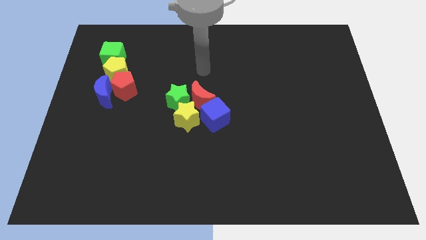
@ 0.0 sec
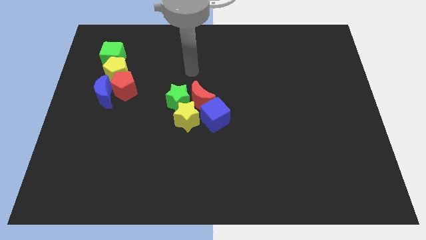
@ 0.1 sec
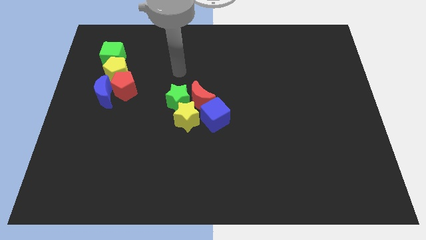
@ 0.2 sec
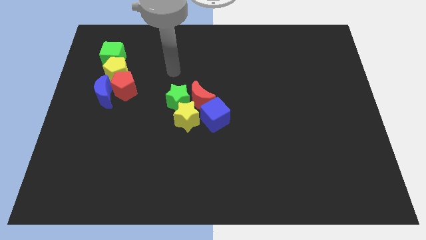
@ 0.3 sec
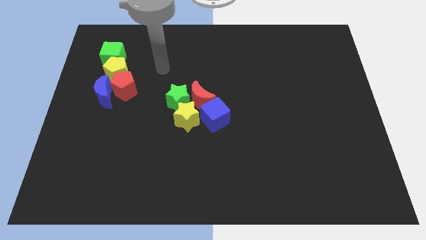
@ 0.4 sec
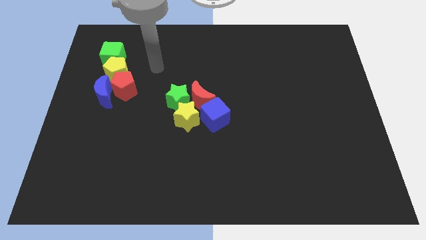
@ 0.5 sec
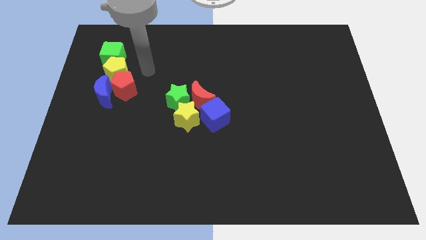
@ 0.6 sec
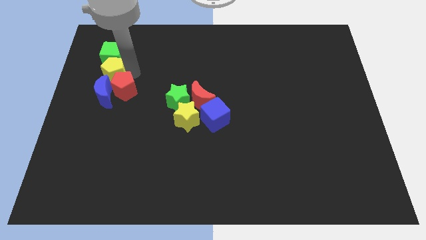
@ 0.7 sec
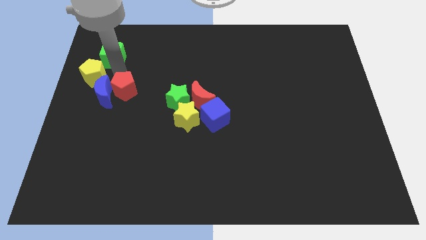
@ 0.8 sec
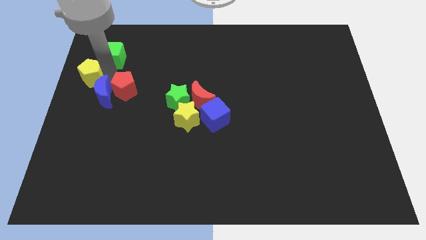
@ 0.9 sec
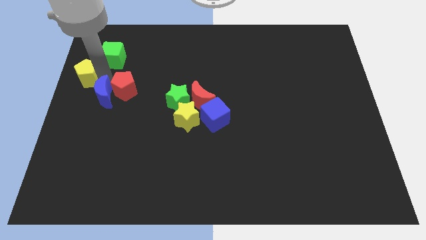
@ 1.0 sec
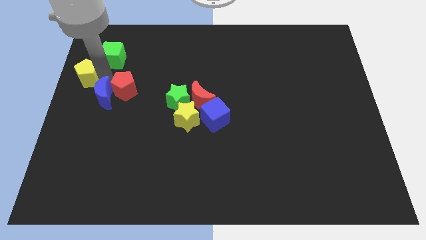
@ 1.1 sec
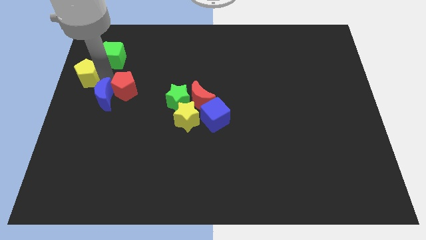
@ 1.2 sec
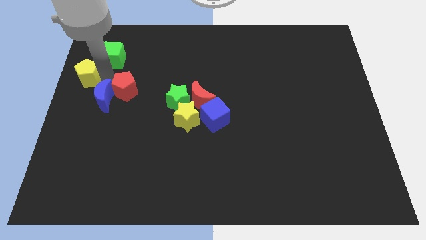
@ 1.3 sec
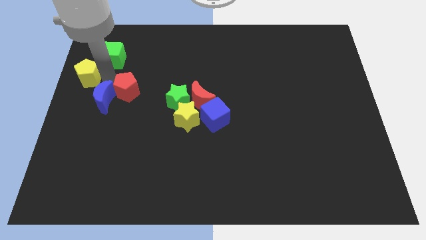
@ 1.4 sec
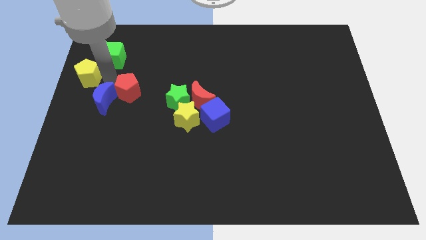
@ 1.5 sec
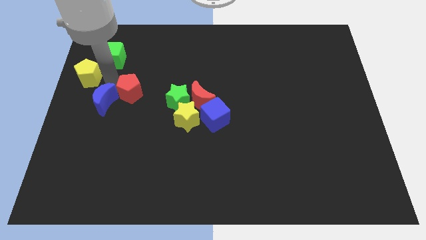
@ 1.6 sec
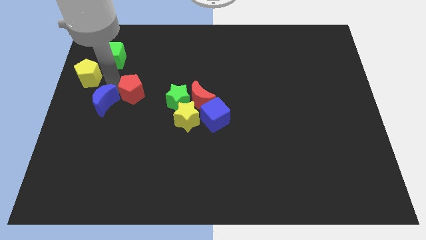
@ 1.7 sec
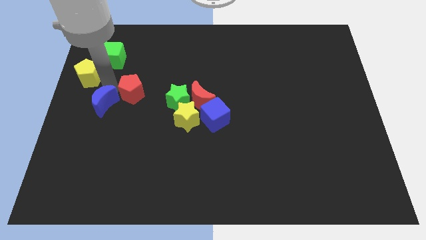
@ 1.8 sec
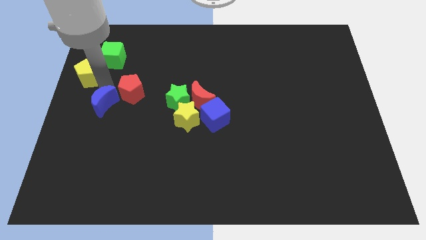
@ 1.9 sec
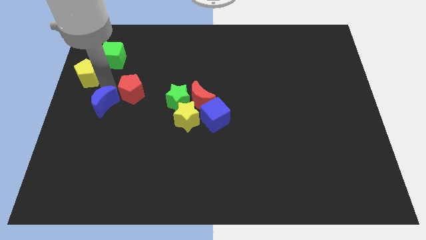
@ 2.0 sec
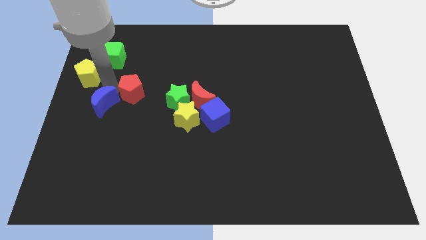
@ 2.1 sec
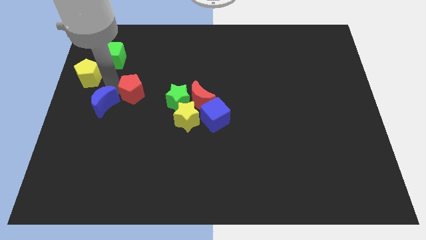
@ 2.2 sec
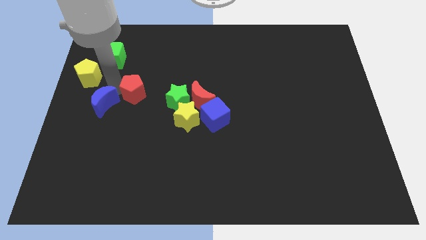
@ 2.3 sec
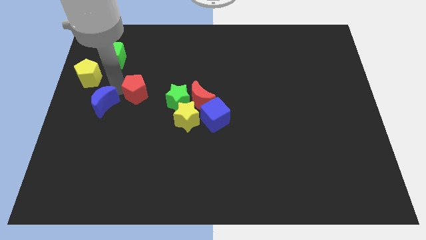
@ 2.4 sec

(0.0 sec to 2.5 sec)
pull the red pentagon apart from the blue moon and yellow pentagon

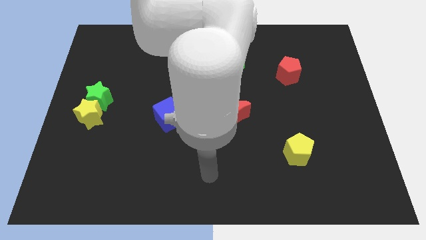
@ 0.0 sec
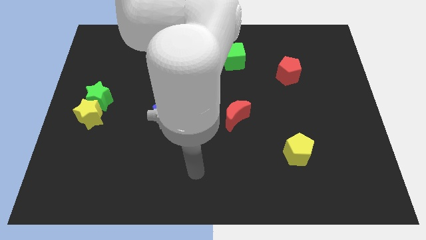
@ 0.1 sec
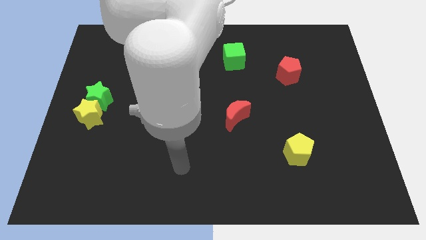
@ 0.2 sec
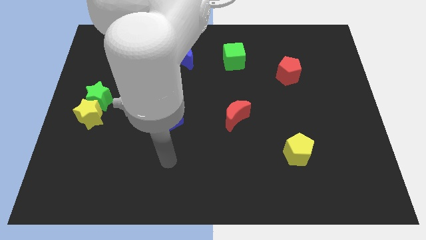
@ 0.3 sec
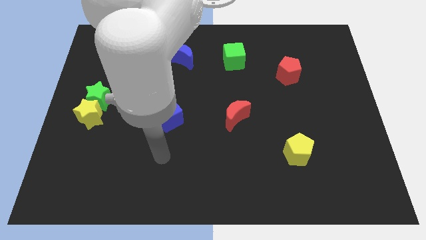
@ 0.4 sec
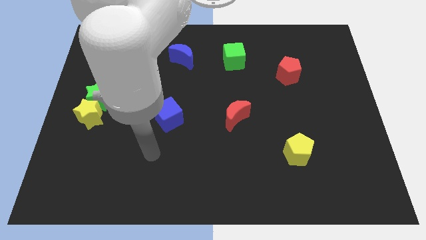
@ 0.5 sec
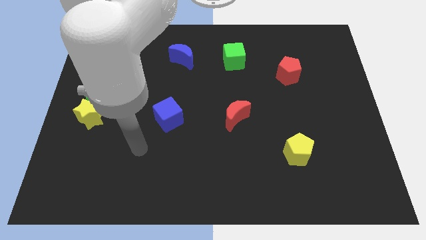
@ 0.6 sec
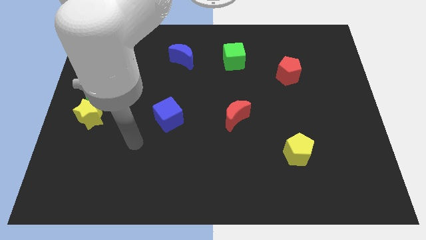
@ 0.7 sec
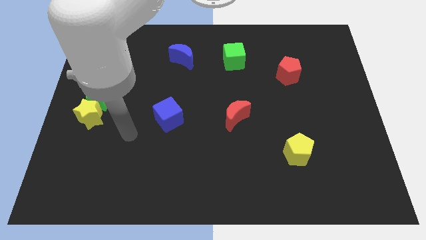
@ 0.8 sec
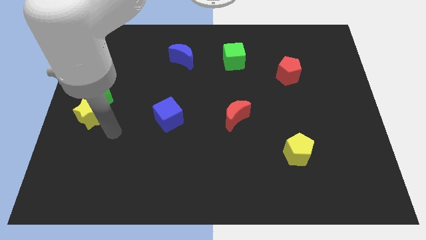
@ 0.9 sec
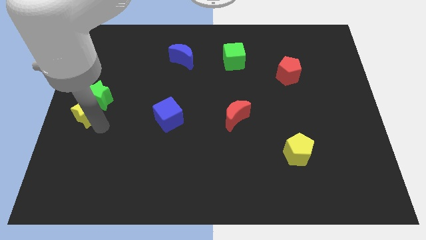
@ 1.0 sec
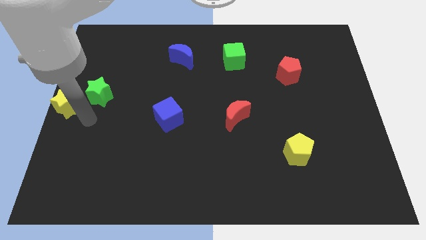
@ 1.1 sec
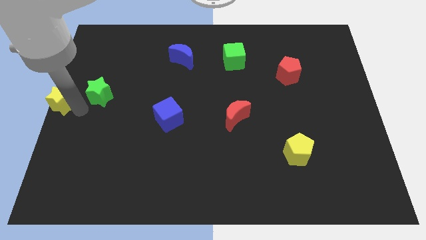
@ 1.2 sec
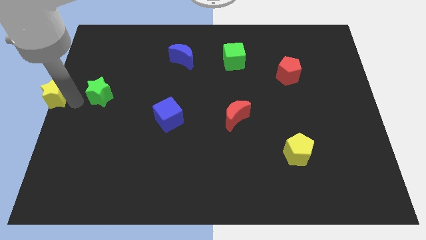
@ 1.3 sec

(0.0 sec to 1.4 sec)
move the green star away from the yellow star

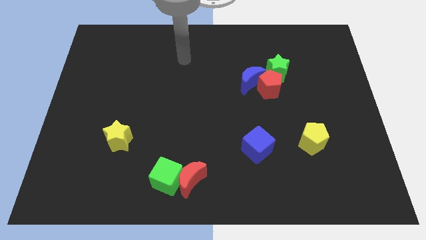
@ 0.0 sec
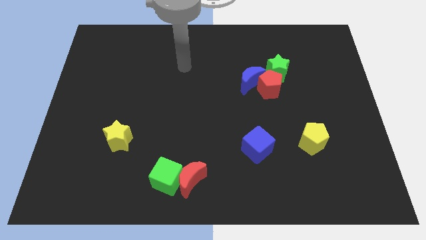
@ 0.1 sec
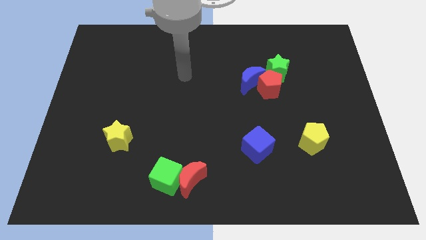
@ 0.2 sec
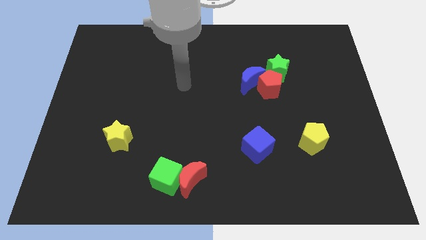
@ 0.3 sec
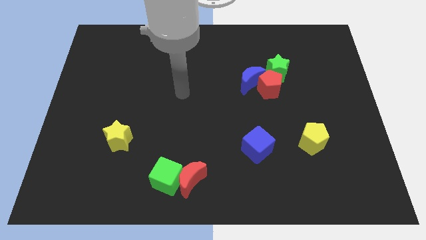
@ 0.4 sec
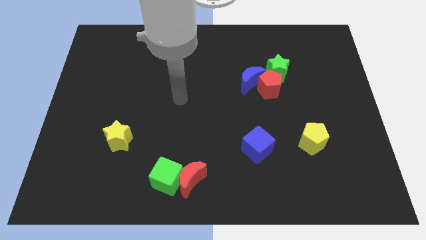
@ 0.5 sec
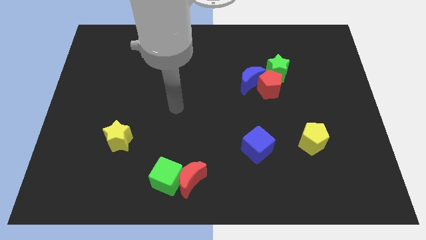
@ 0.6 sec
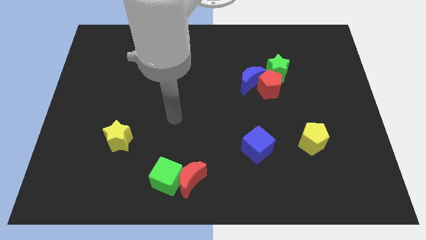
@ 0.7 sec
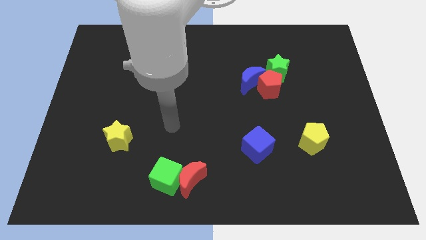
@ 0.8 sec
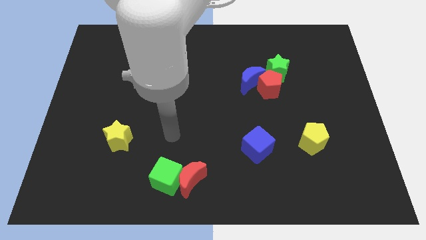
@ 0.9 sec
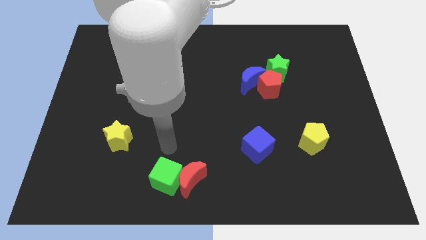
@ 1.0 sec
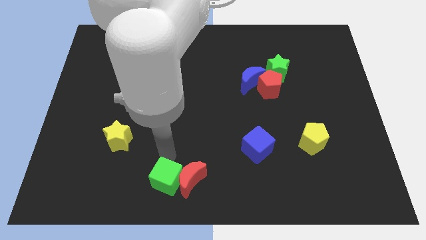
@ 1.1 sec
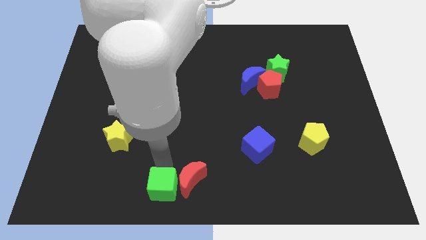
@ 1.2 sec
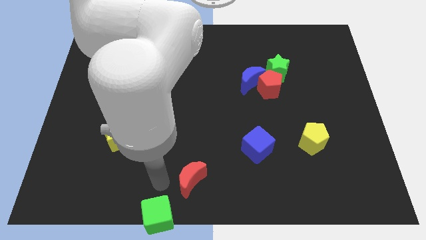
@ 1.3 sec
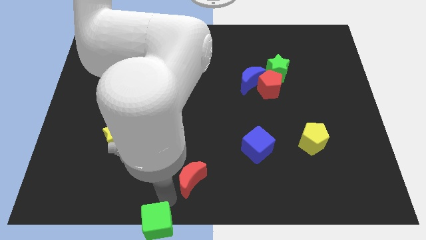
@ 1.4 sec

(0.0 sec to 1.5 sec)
move the red moon away from the green cube

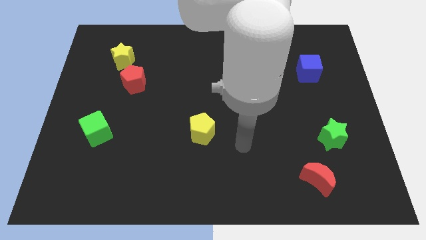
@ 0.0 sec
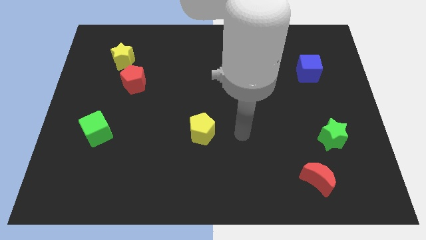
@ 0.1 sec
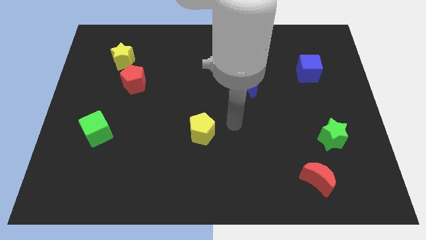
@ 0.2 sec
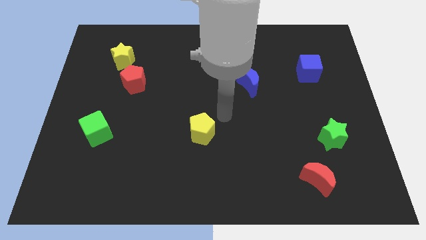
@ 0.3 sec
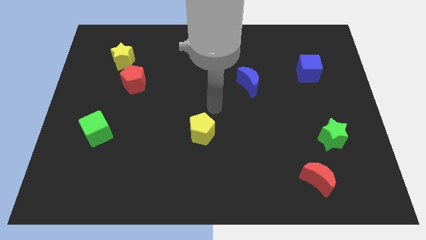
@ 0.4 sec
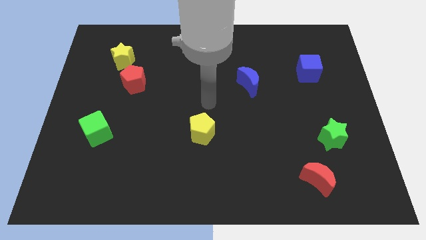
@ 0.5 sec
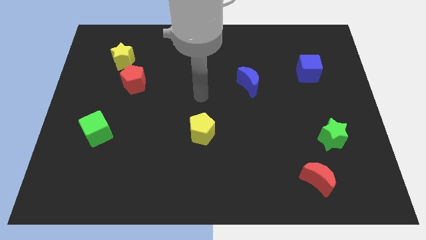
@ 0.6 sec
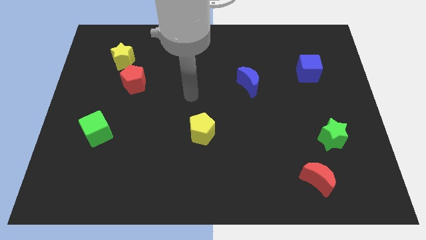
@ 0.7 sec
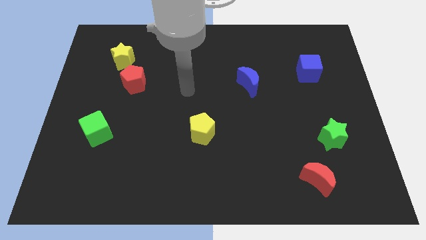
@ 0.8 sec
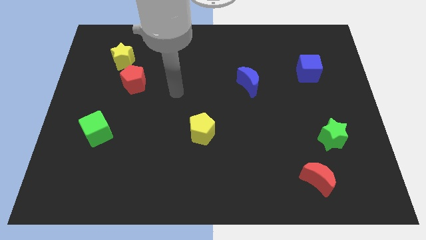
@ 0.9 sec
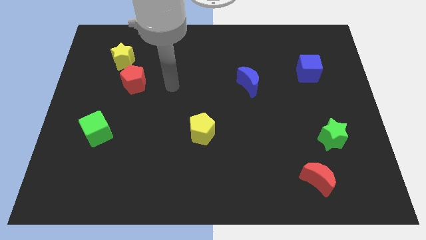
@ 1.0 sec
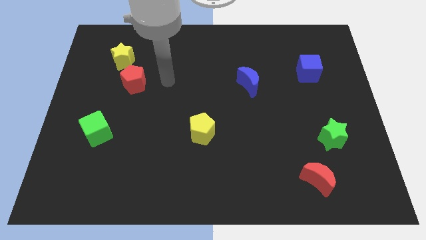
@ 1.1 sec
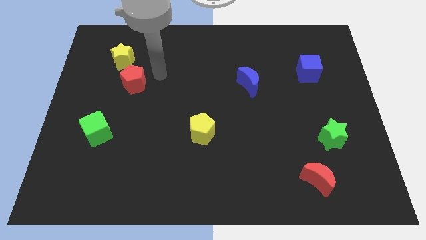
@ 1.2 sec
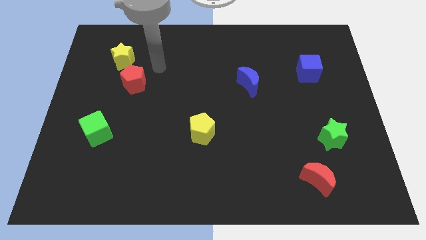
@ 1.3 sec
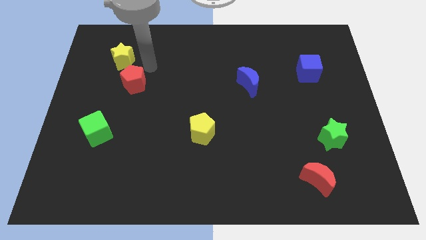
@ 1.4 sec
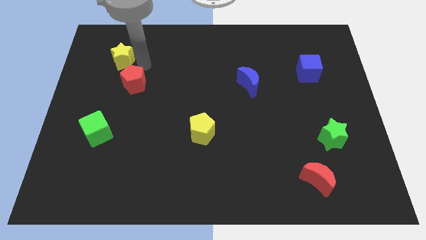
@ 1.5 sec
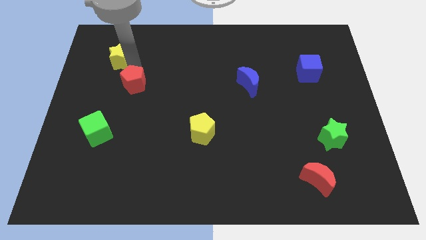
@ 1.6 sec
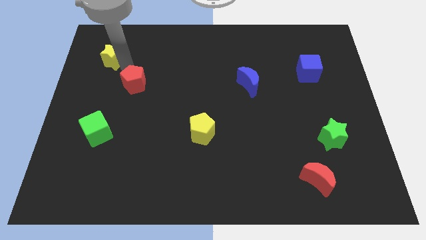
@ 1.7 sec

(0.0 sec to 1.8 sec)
move the red pentagon away from the yellow star

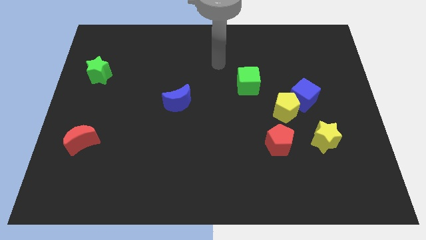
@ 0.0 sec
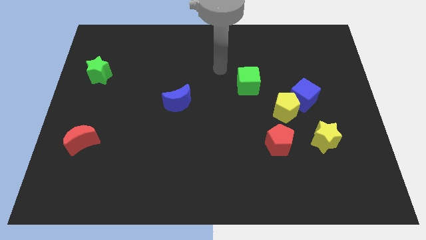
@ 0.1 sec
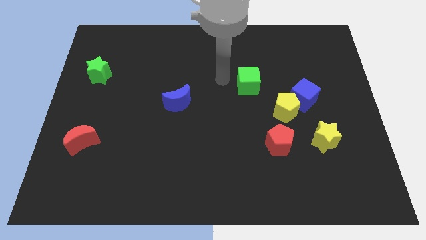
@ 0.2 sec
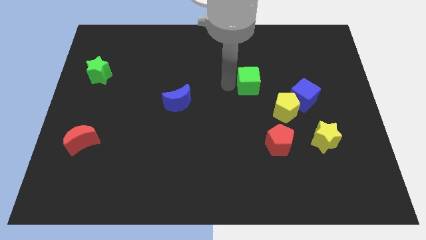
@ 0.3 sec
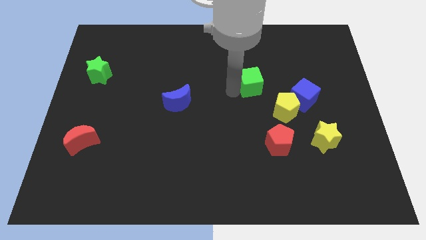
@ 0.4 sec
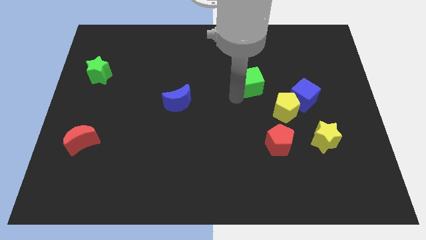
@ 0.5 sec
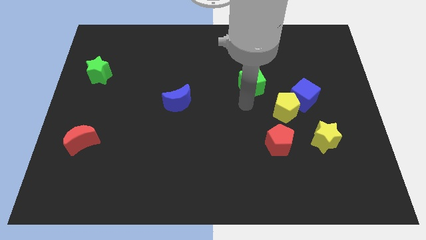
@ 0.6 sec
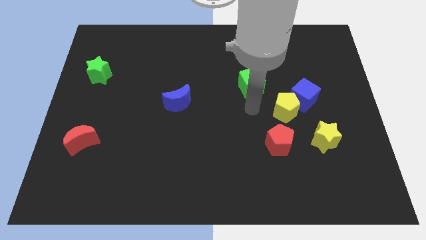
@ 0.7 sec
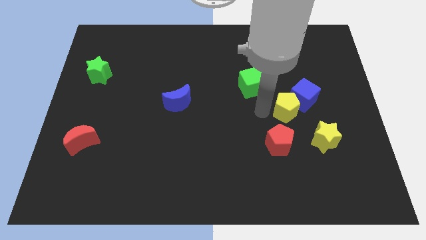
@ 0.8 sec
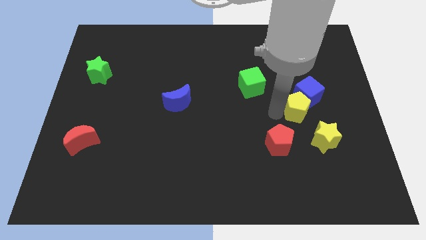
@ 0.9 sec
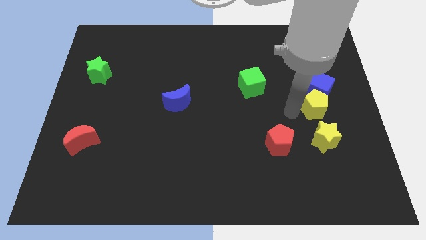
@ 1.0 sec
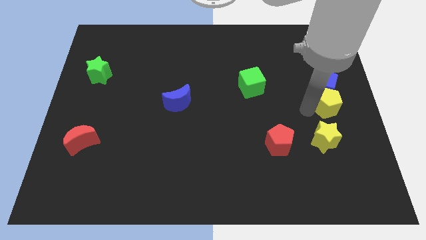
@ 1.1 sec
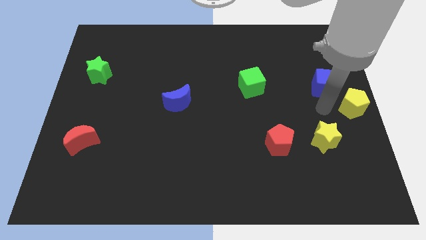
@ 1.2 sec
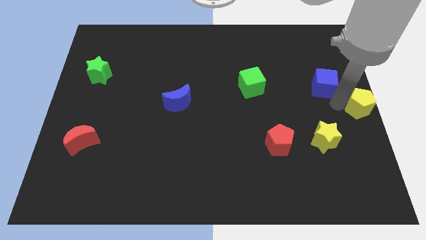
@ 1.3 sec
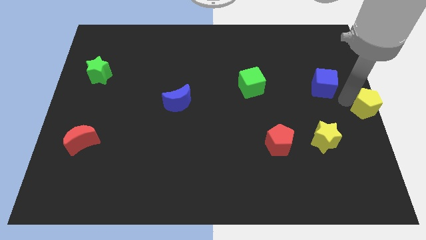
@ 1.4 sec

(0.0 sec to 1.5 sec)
separate the blue cube from the yellow pentagon

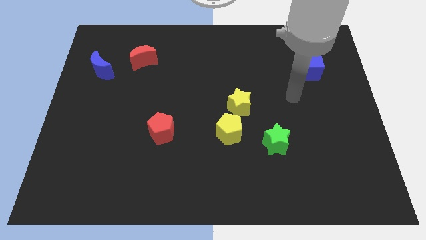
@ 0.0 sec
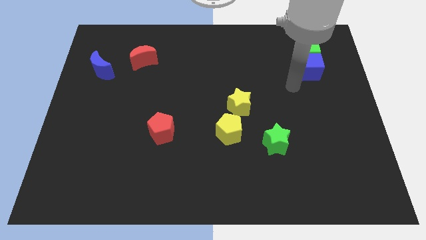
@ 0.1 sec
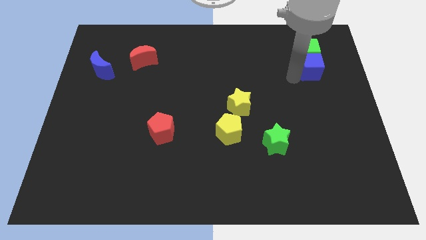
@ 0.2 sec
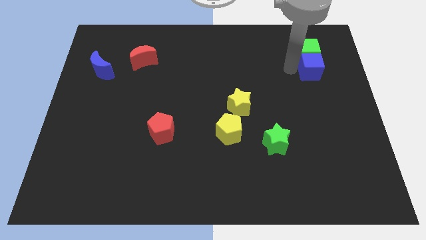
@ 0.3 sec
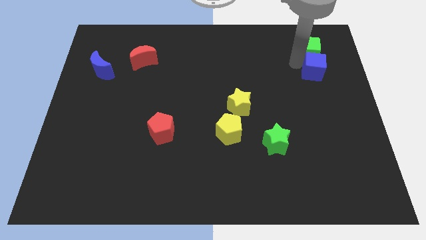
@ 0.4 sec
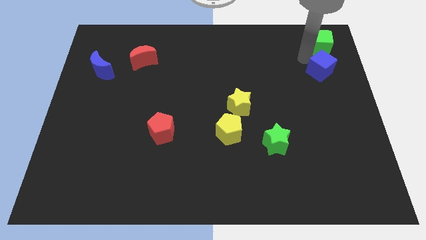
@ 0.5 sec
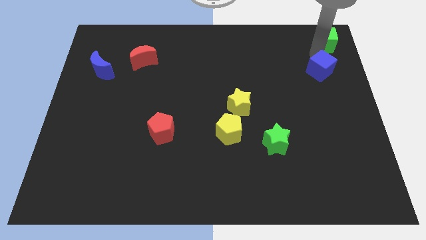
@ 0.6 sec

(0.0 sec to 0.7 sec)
pull the blue cube apart from the green cube
